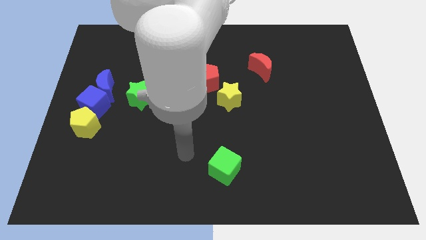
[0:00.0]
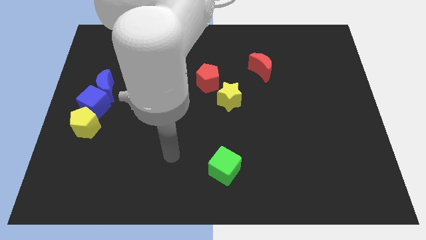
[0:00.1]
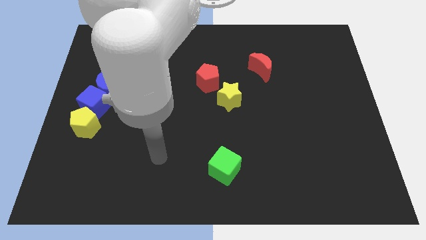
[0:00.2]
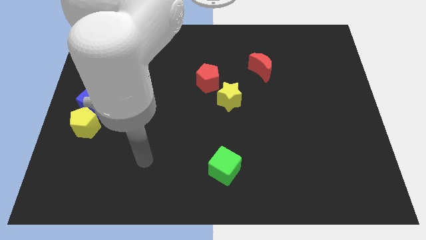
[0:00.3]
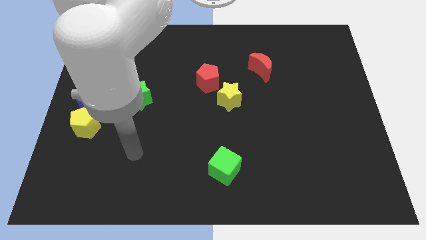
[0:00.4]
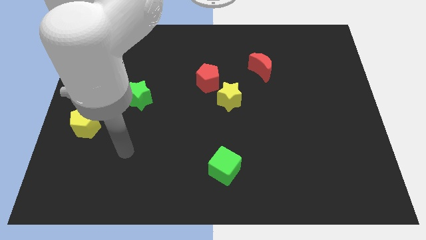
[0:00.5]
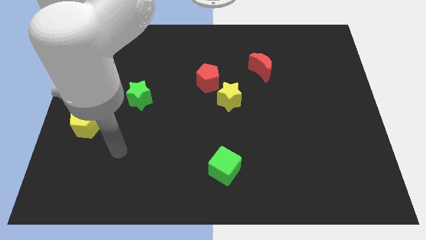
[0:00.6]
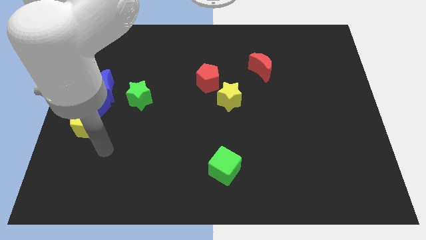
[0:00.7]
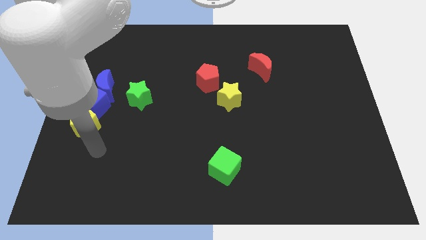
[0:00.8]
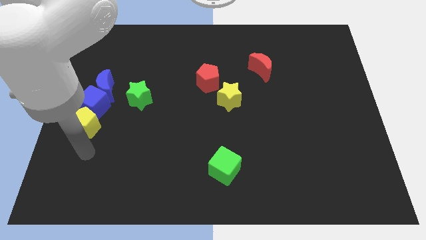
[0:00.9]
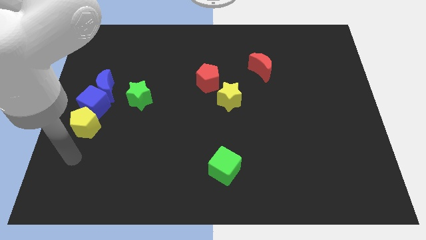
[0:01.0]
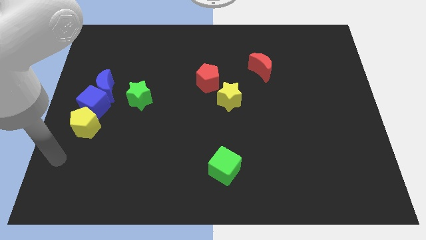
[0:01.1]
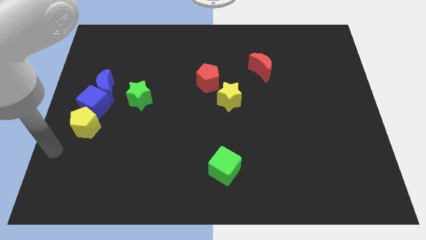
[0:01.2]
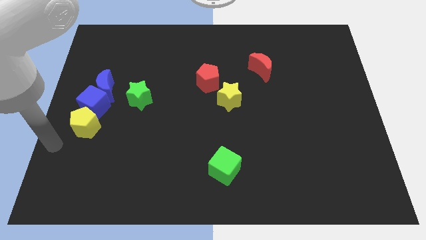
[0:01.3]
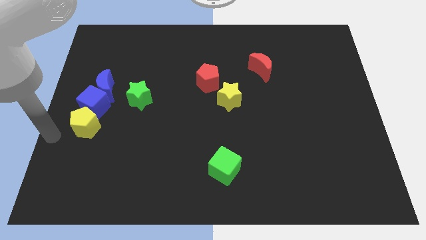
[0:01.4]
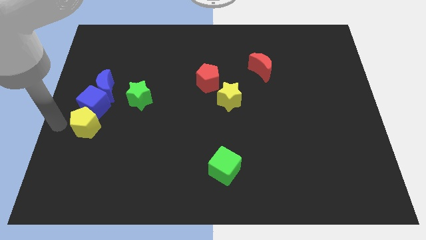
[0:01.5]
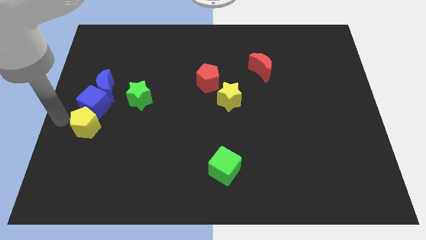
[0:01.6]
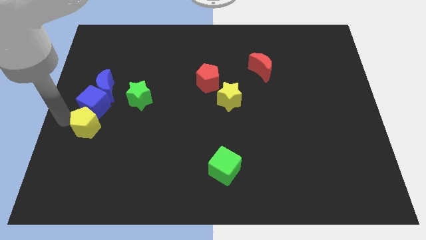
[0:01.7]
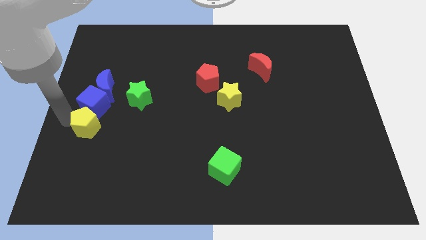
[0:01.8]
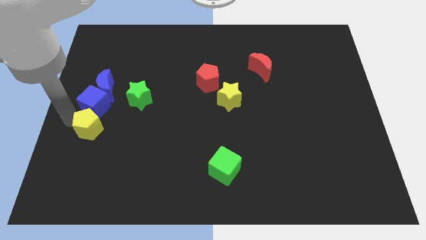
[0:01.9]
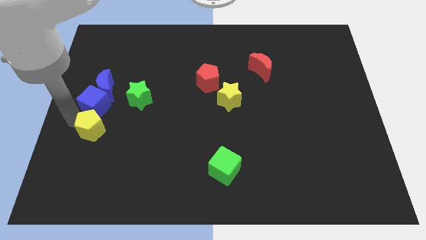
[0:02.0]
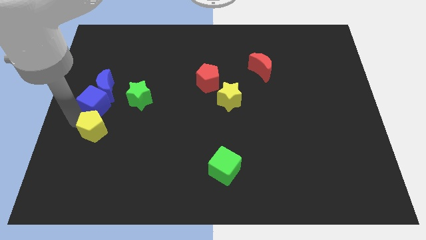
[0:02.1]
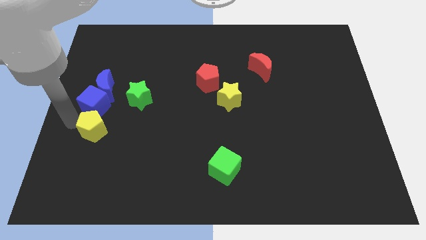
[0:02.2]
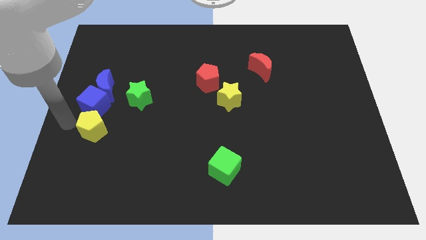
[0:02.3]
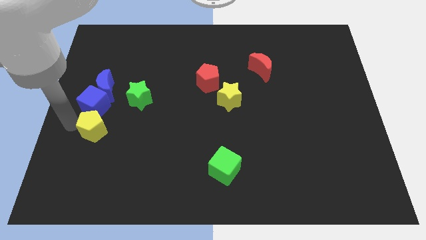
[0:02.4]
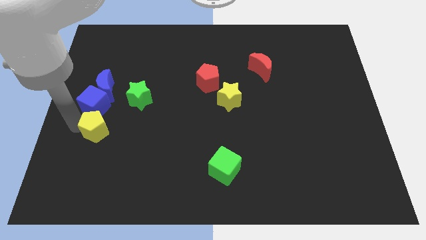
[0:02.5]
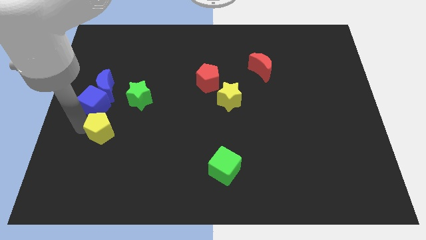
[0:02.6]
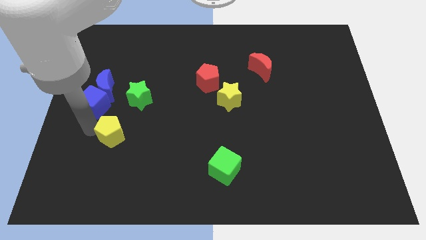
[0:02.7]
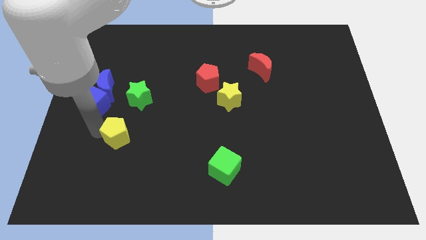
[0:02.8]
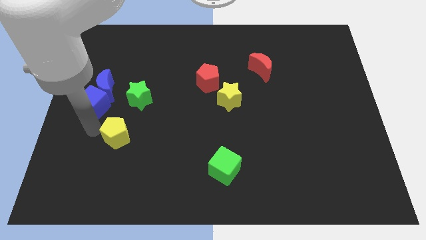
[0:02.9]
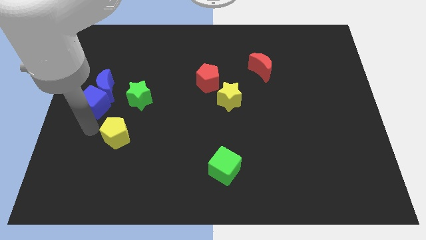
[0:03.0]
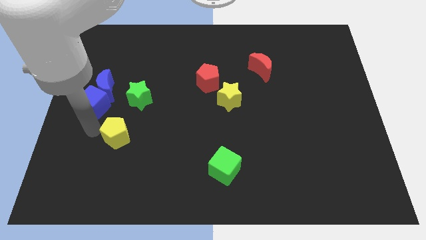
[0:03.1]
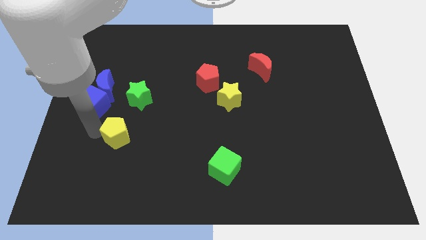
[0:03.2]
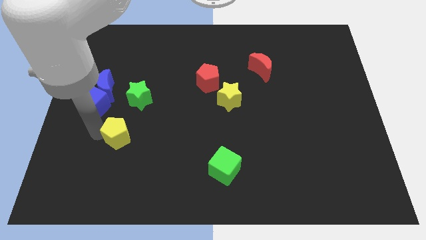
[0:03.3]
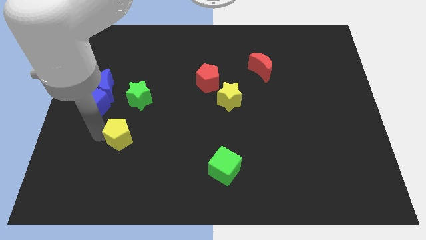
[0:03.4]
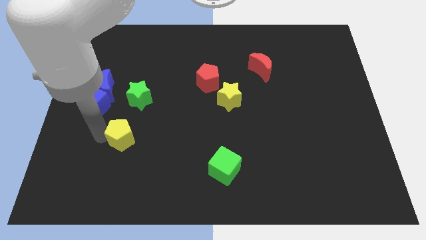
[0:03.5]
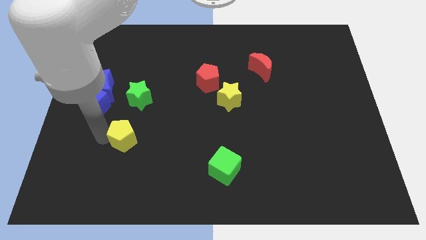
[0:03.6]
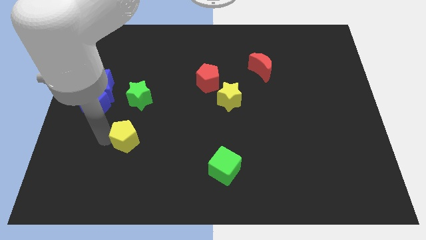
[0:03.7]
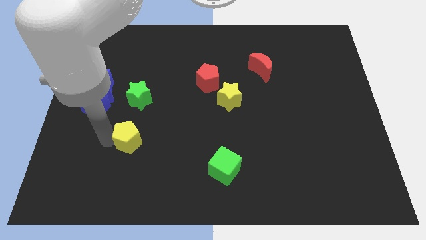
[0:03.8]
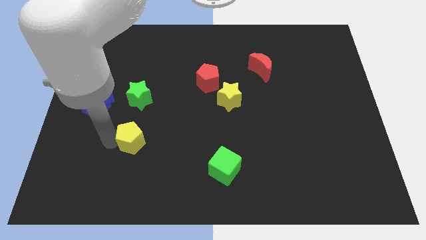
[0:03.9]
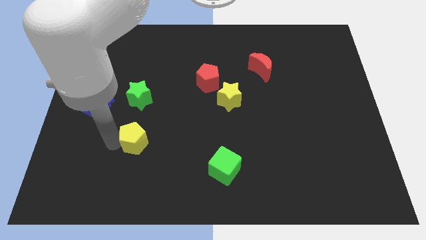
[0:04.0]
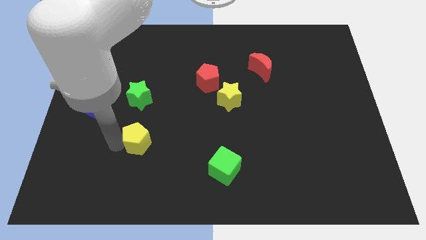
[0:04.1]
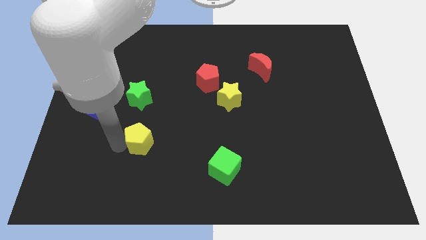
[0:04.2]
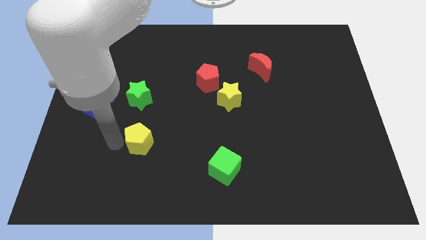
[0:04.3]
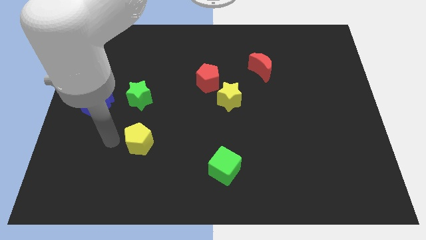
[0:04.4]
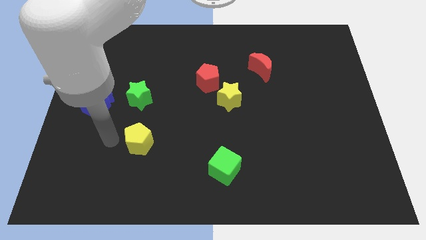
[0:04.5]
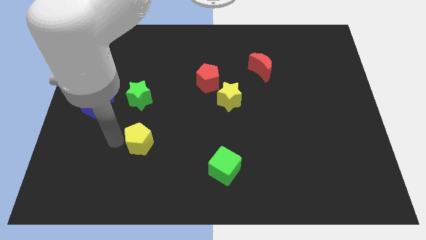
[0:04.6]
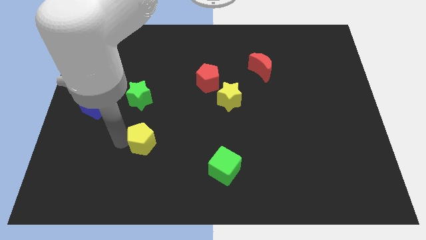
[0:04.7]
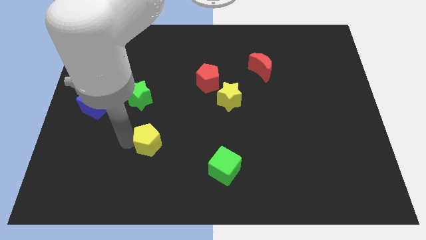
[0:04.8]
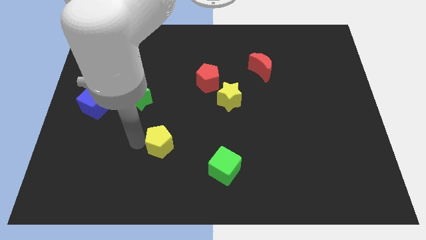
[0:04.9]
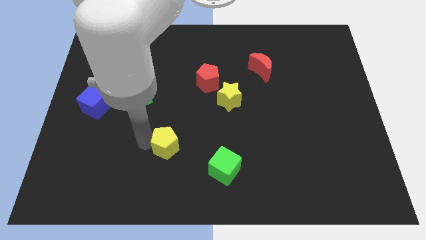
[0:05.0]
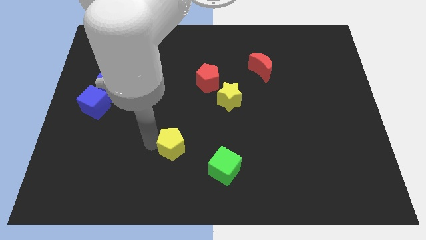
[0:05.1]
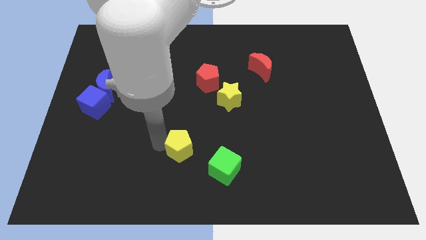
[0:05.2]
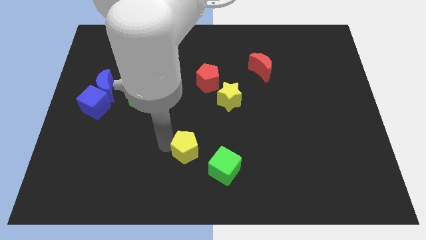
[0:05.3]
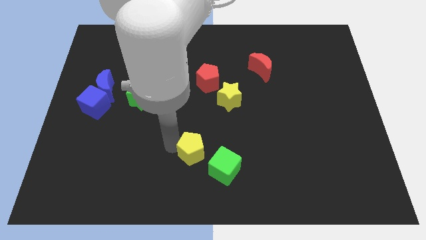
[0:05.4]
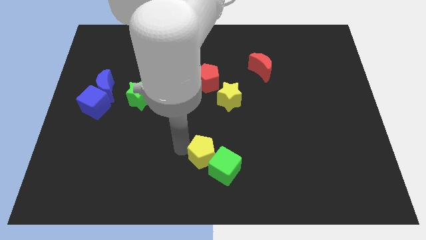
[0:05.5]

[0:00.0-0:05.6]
put the yellow pentagon to the green cube

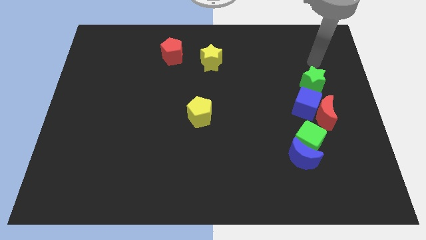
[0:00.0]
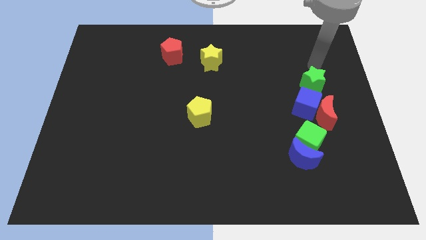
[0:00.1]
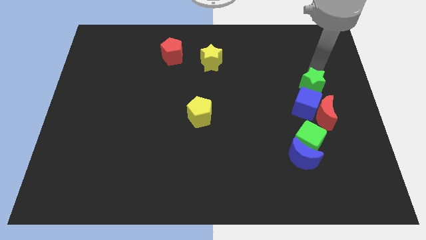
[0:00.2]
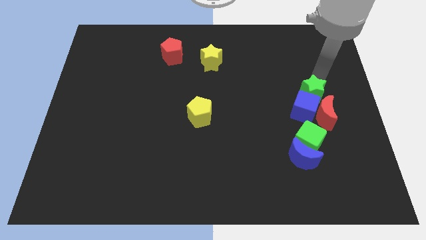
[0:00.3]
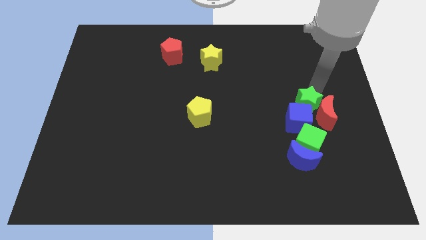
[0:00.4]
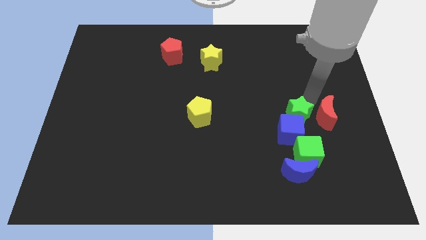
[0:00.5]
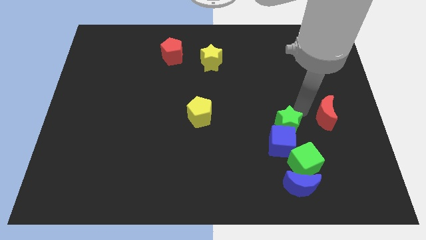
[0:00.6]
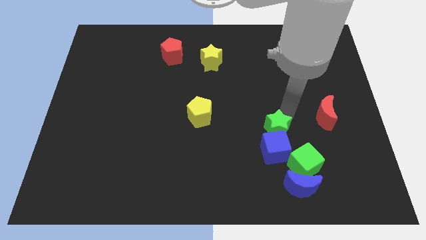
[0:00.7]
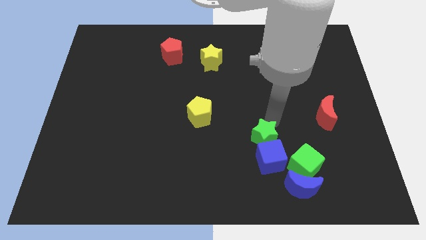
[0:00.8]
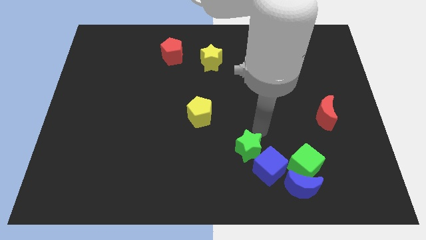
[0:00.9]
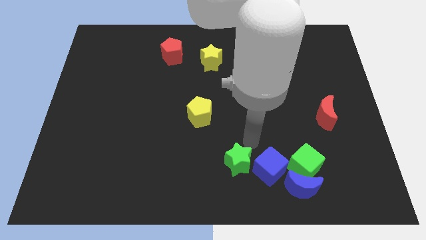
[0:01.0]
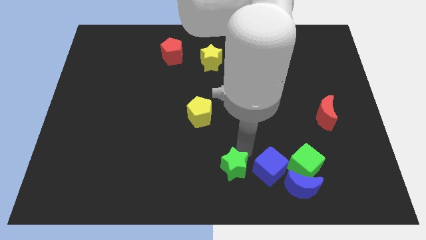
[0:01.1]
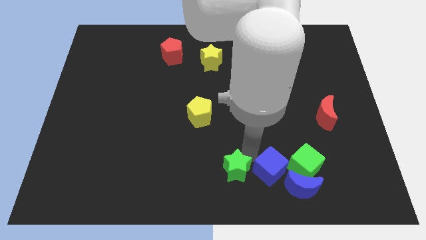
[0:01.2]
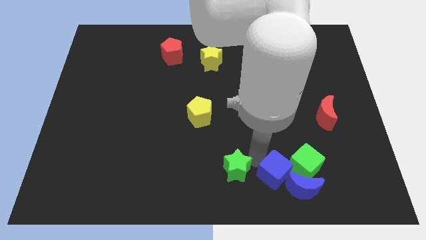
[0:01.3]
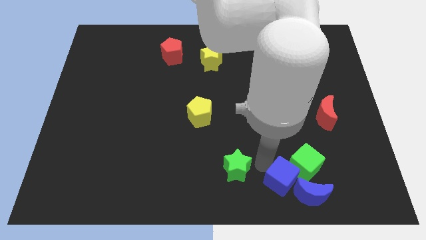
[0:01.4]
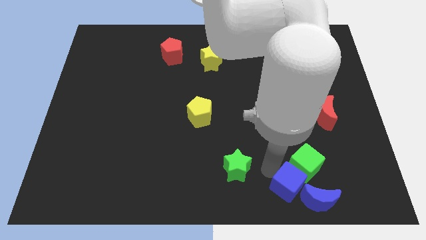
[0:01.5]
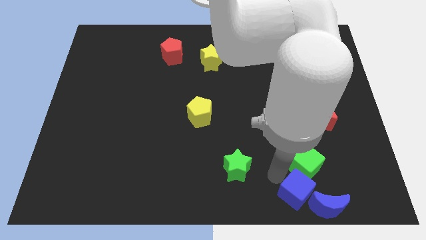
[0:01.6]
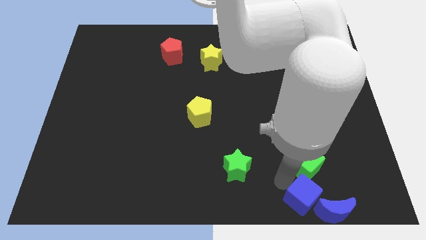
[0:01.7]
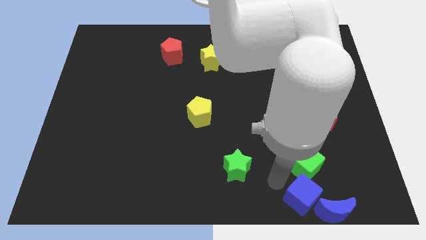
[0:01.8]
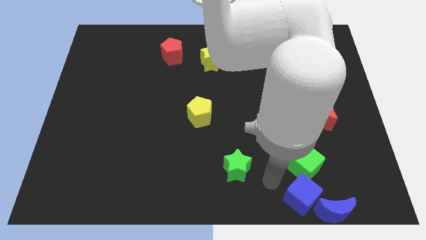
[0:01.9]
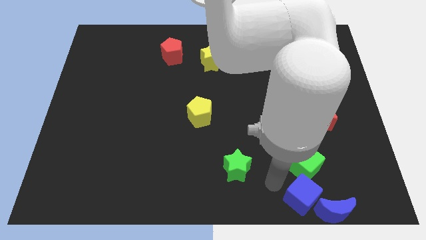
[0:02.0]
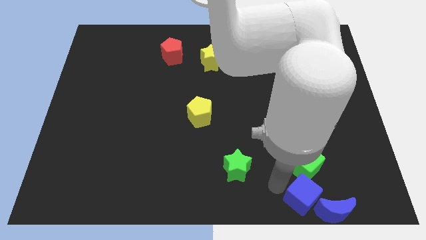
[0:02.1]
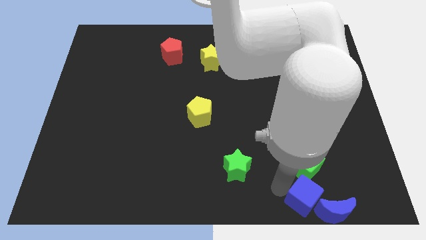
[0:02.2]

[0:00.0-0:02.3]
slide the blue cube next to the blue moon
